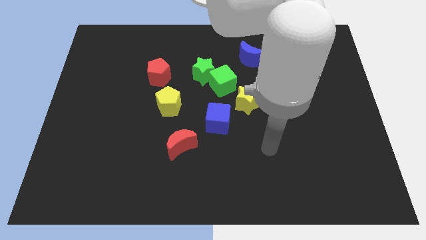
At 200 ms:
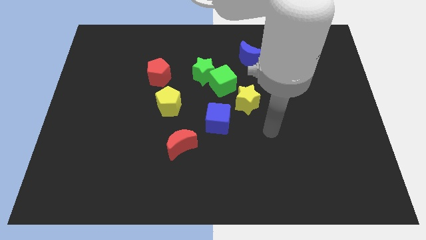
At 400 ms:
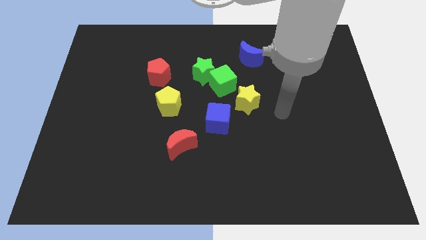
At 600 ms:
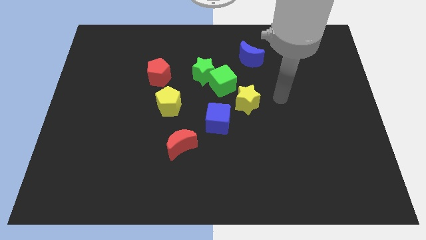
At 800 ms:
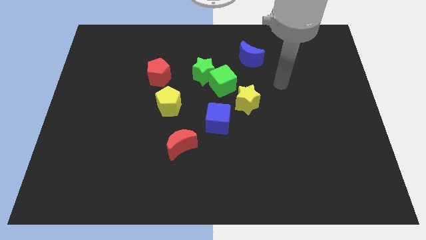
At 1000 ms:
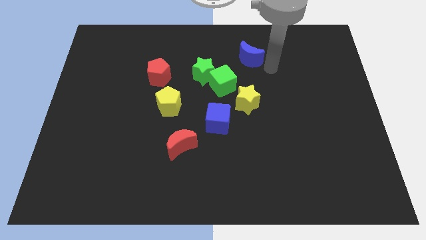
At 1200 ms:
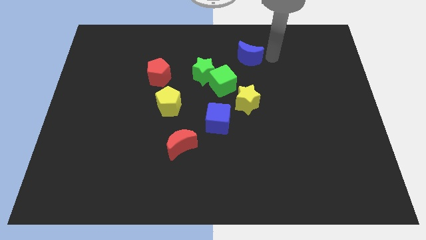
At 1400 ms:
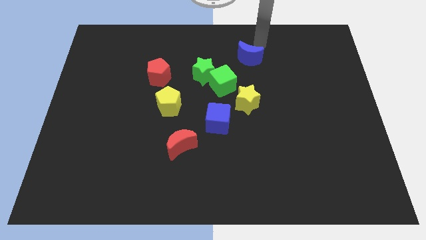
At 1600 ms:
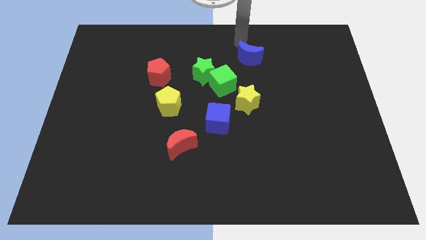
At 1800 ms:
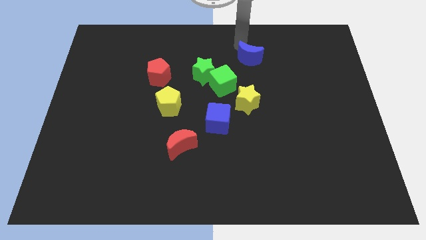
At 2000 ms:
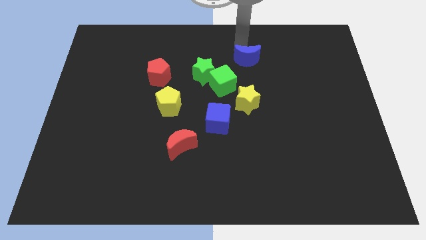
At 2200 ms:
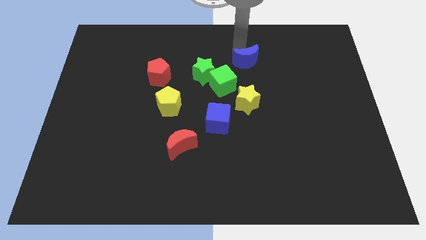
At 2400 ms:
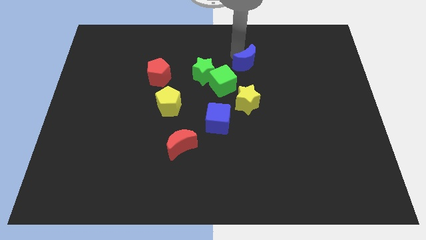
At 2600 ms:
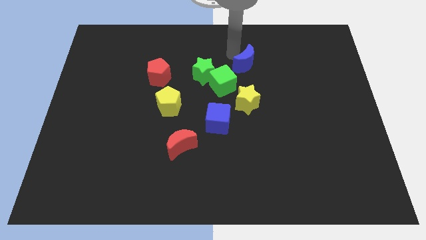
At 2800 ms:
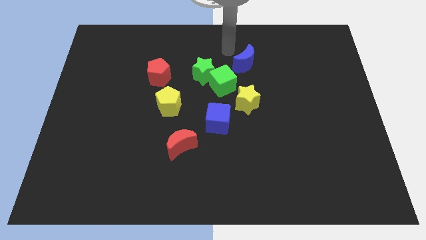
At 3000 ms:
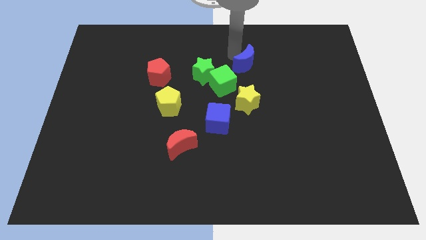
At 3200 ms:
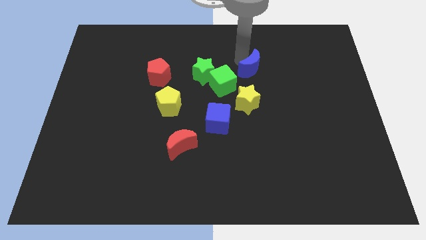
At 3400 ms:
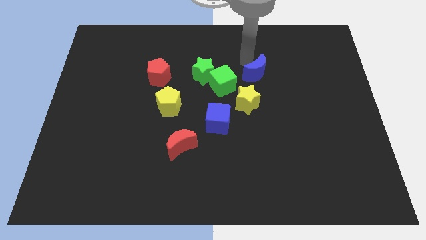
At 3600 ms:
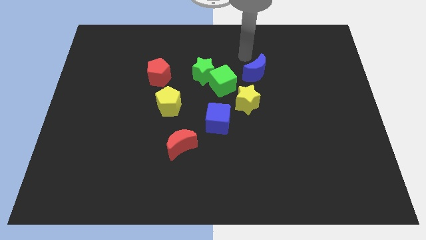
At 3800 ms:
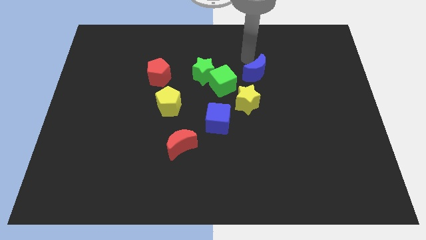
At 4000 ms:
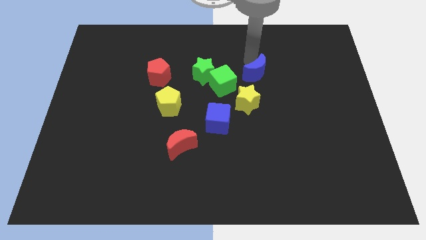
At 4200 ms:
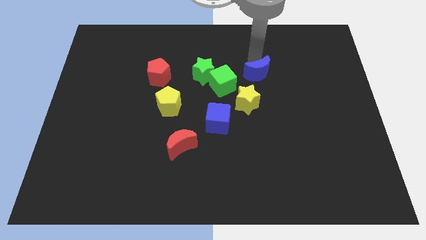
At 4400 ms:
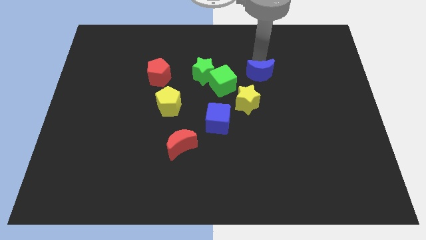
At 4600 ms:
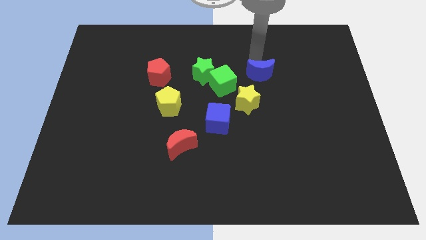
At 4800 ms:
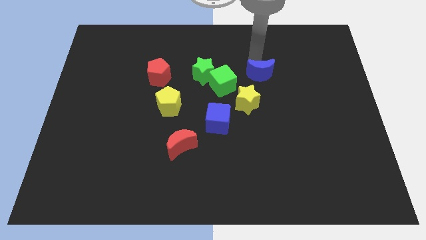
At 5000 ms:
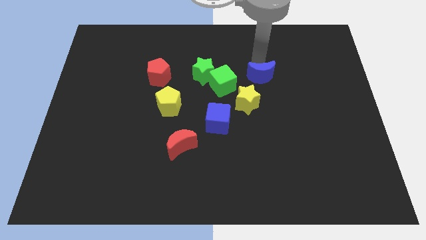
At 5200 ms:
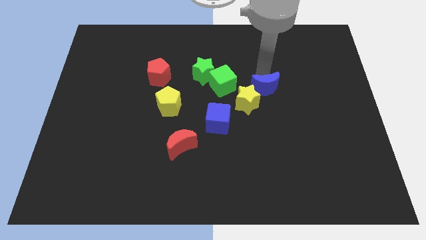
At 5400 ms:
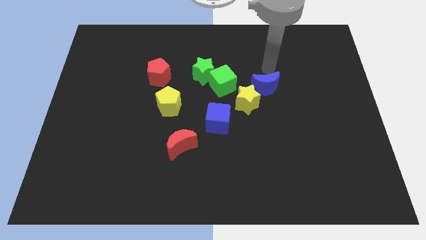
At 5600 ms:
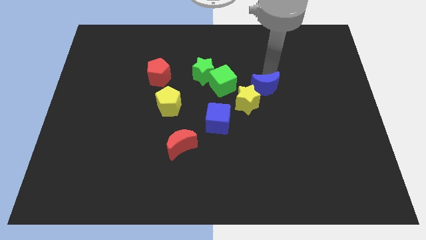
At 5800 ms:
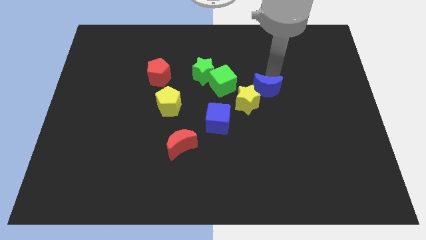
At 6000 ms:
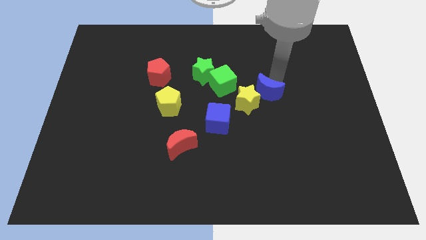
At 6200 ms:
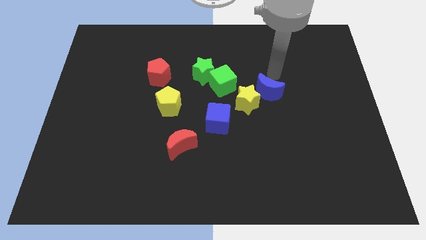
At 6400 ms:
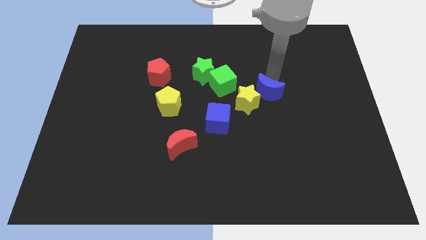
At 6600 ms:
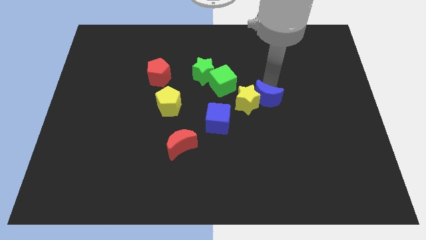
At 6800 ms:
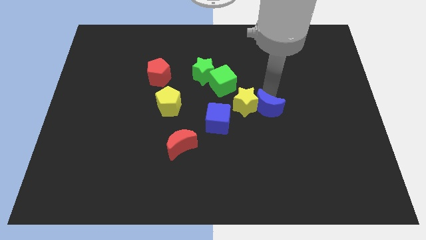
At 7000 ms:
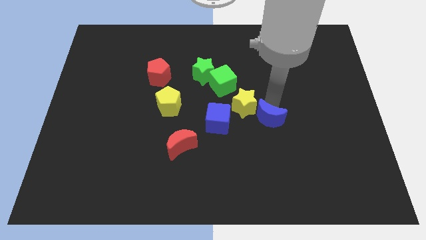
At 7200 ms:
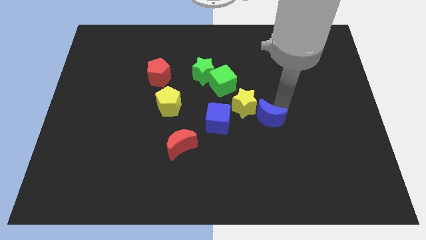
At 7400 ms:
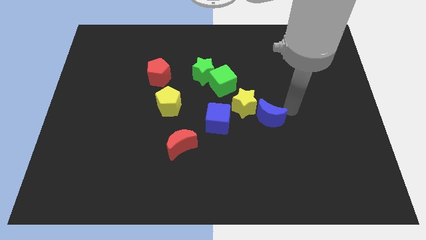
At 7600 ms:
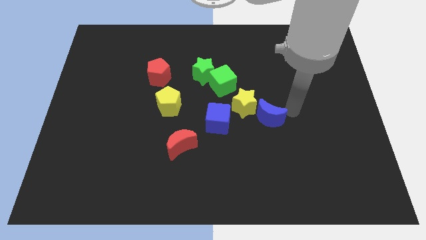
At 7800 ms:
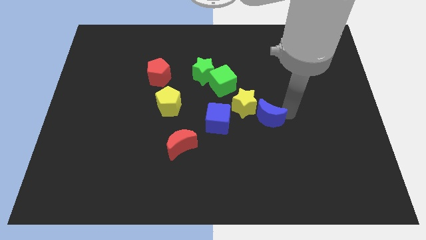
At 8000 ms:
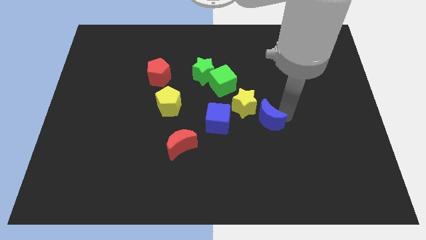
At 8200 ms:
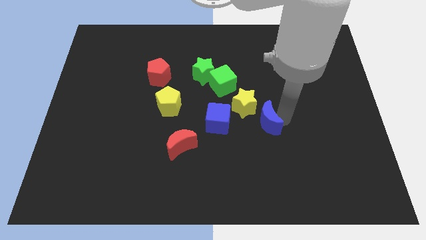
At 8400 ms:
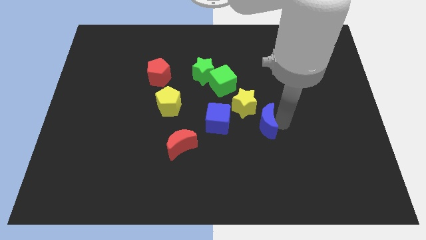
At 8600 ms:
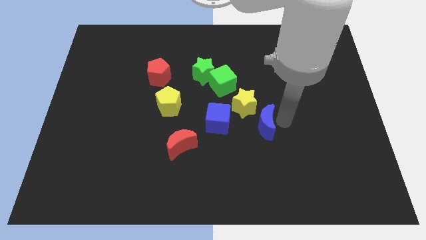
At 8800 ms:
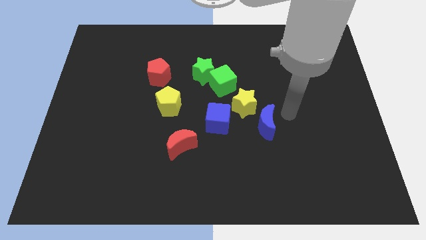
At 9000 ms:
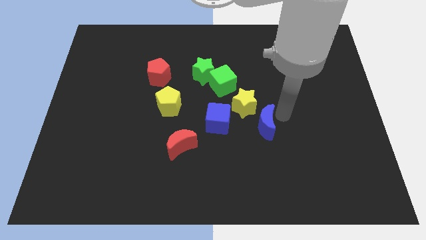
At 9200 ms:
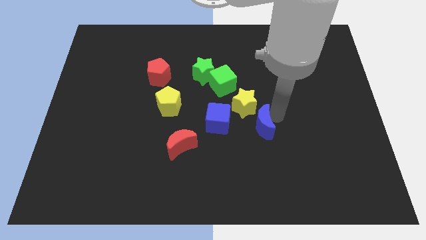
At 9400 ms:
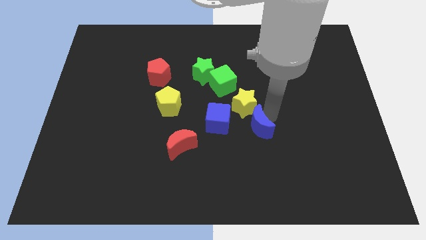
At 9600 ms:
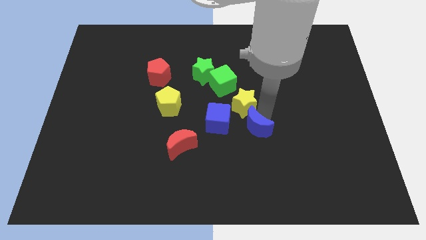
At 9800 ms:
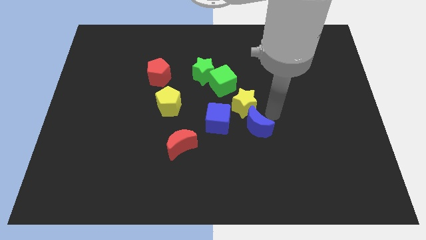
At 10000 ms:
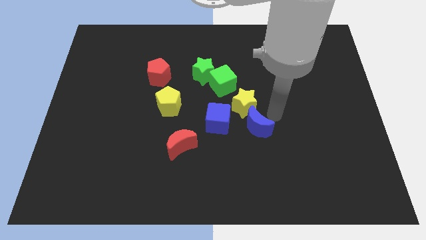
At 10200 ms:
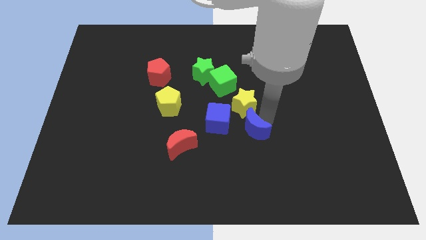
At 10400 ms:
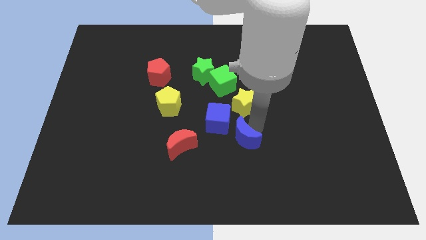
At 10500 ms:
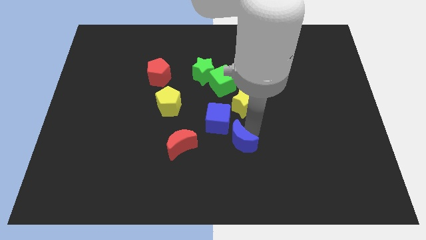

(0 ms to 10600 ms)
move the blue moon below the blue cube
